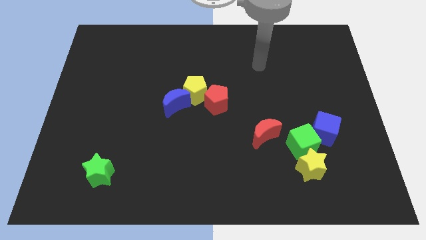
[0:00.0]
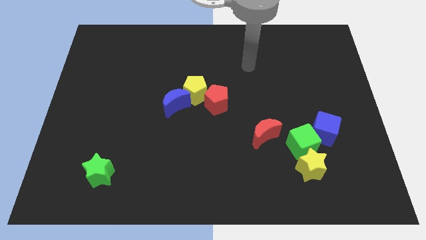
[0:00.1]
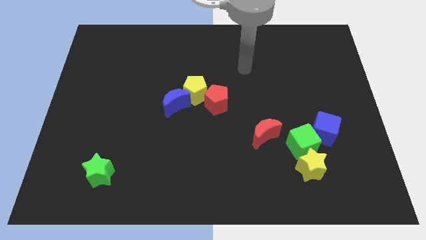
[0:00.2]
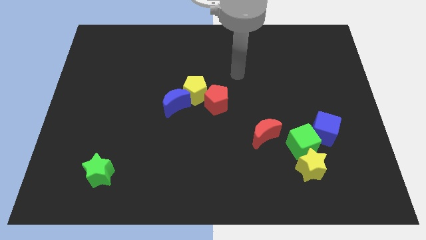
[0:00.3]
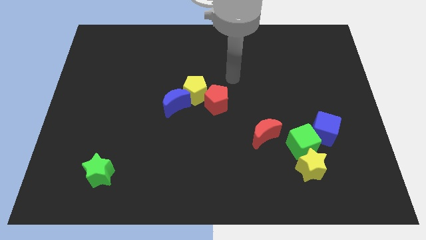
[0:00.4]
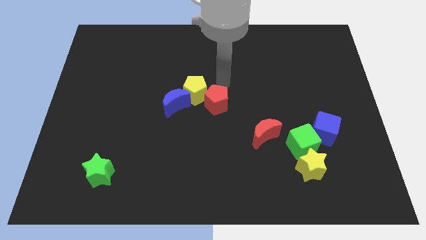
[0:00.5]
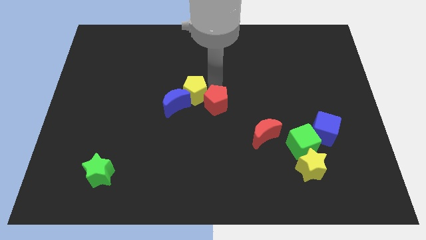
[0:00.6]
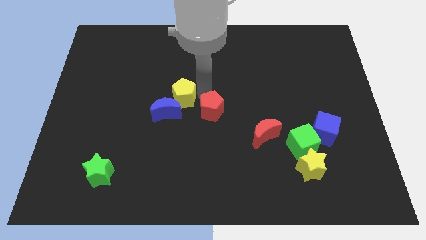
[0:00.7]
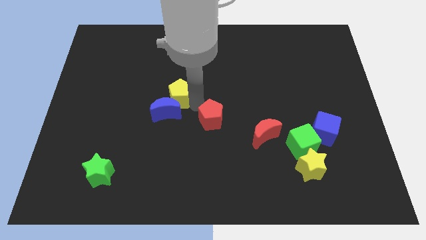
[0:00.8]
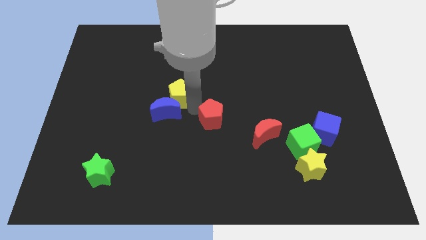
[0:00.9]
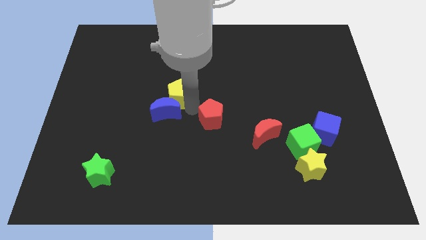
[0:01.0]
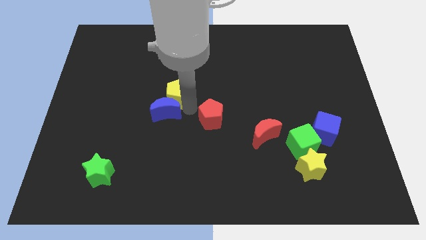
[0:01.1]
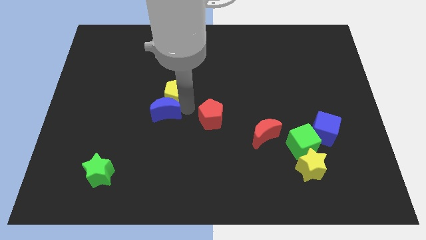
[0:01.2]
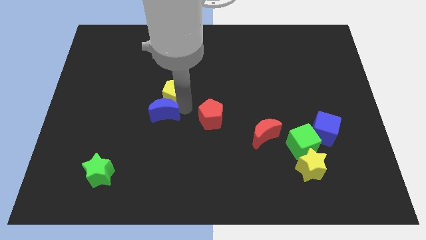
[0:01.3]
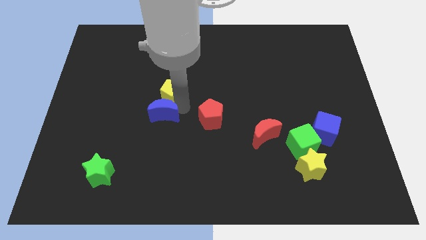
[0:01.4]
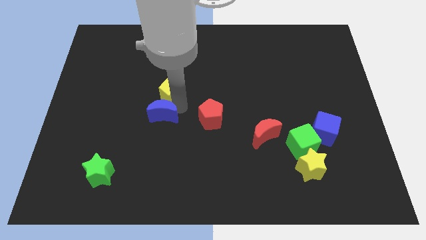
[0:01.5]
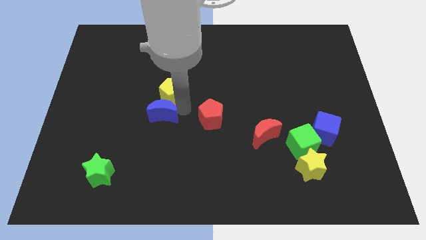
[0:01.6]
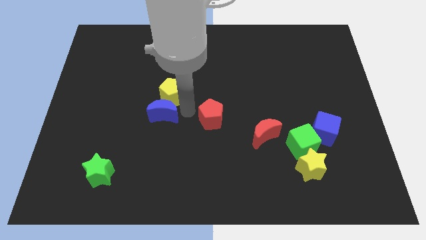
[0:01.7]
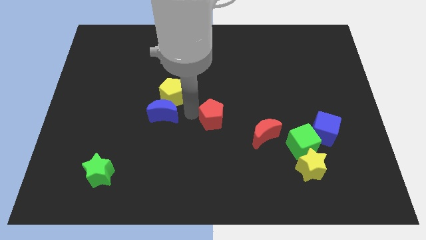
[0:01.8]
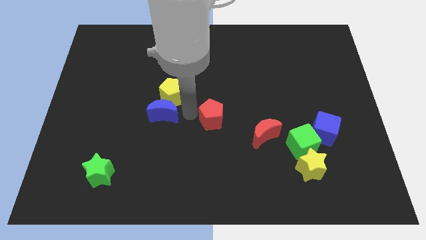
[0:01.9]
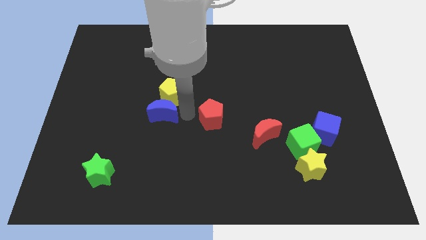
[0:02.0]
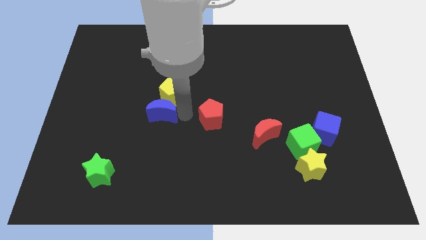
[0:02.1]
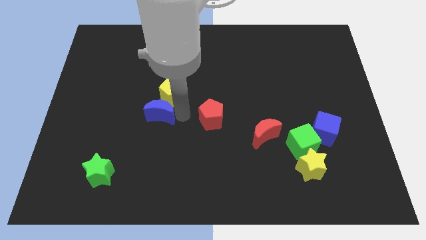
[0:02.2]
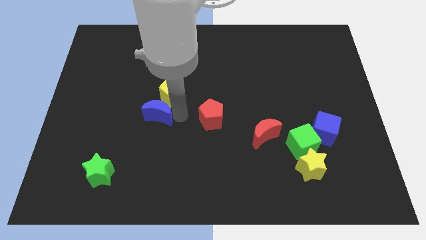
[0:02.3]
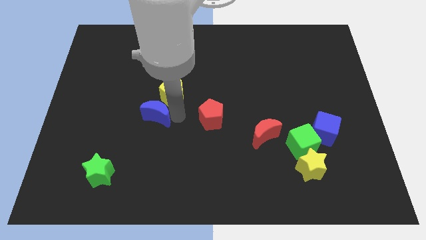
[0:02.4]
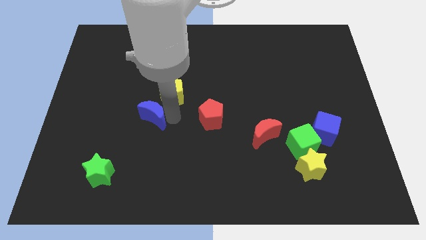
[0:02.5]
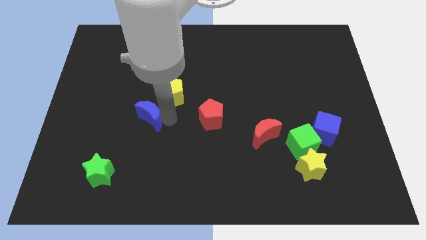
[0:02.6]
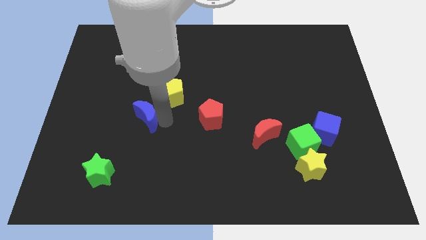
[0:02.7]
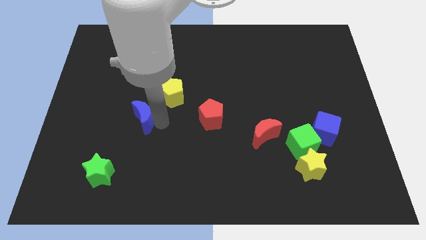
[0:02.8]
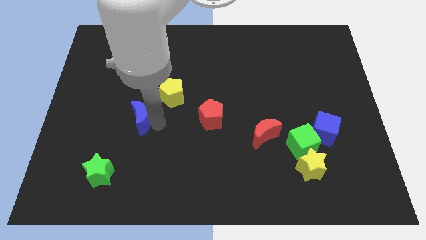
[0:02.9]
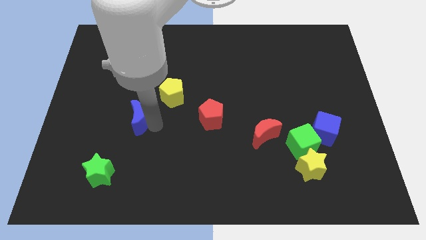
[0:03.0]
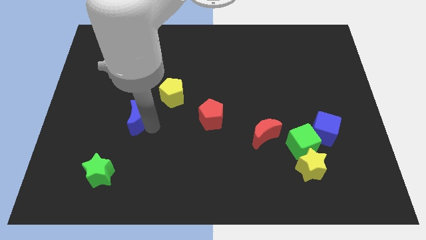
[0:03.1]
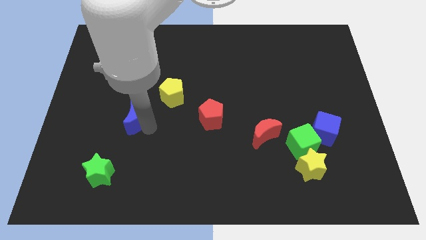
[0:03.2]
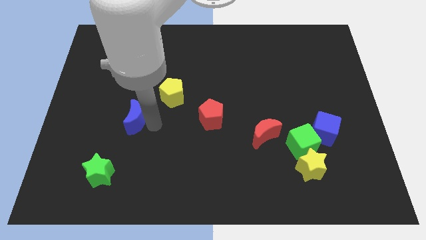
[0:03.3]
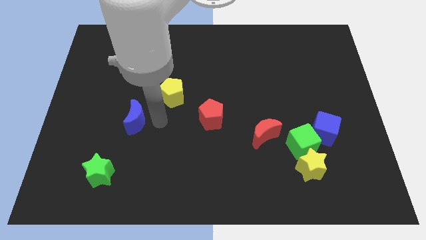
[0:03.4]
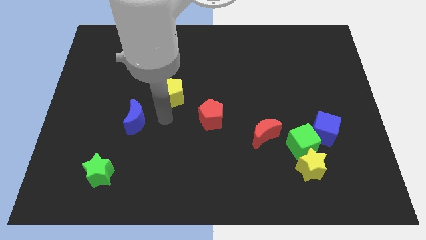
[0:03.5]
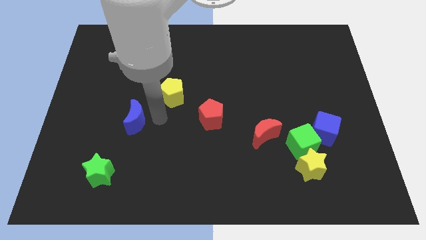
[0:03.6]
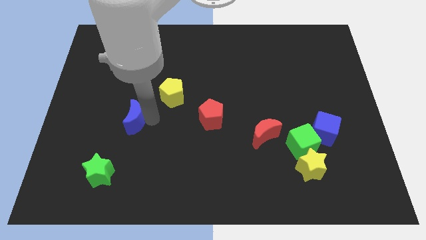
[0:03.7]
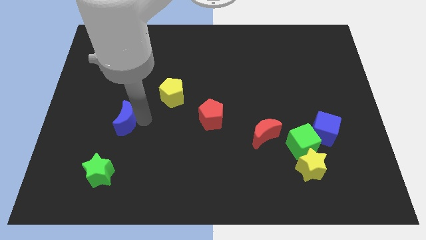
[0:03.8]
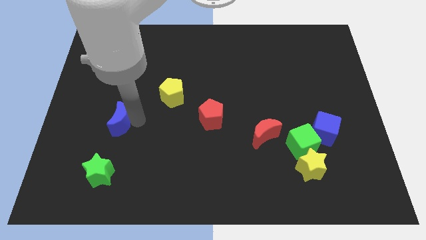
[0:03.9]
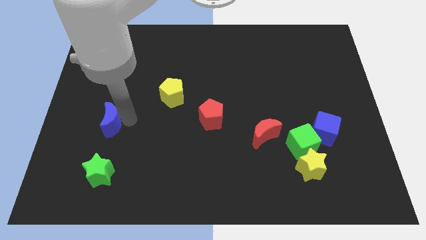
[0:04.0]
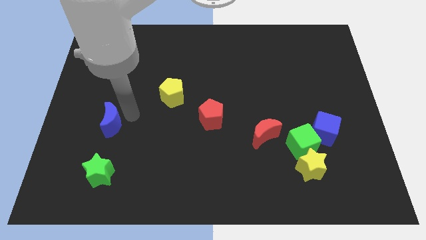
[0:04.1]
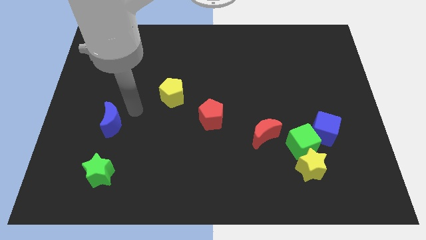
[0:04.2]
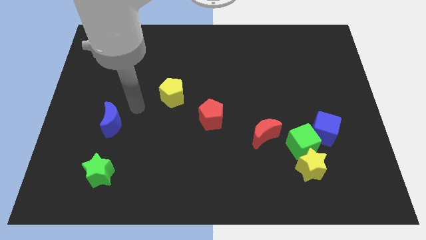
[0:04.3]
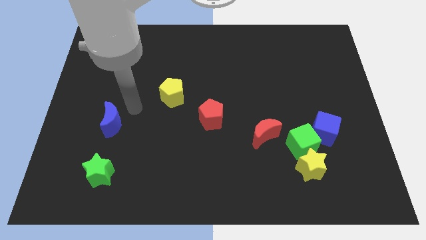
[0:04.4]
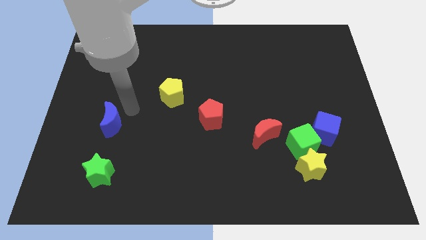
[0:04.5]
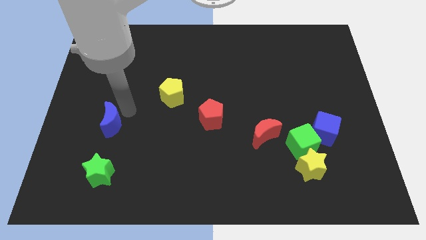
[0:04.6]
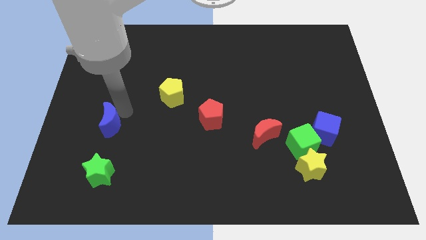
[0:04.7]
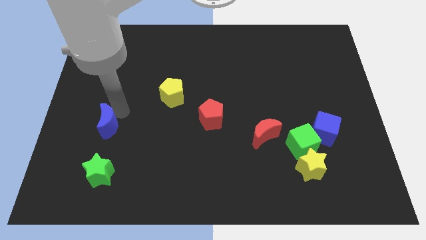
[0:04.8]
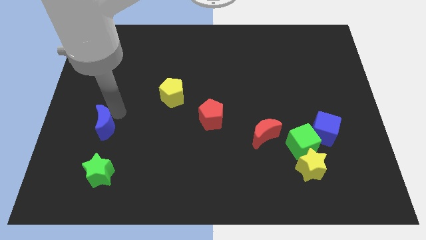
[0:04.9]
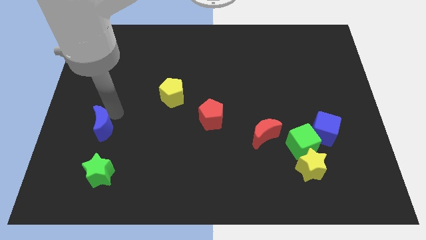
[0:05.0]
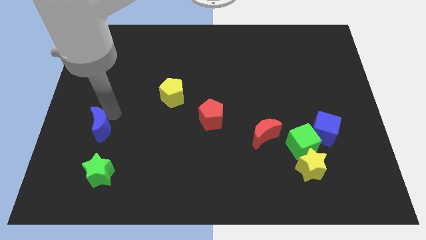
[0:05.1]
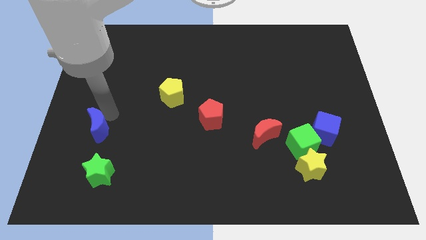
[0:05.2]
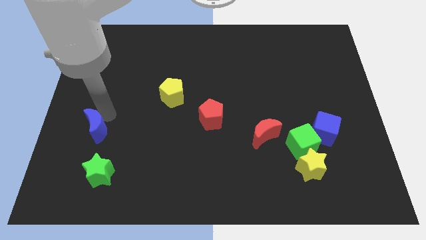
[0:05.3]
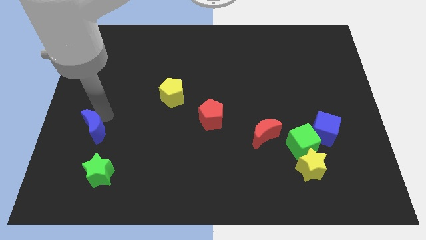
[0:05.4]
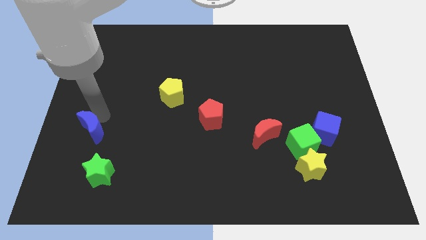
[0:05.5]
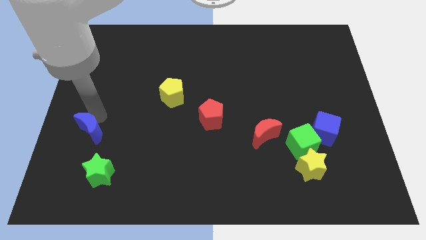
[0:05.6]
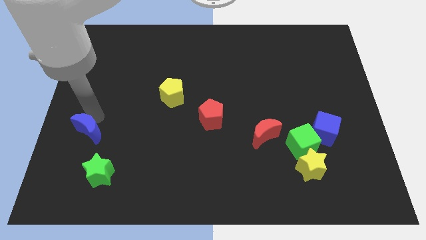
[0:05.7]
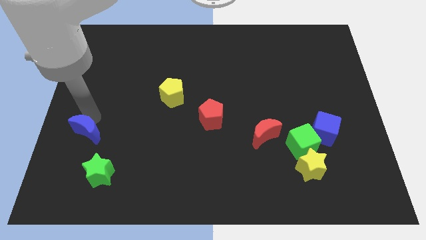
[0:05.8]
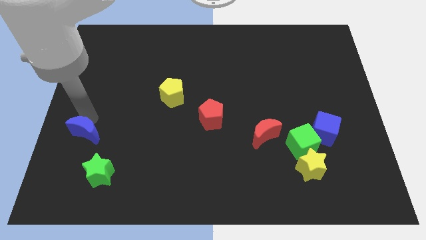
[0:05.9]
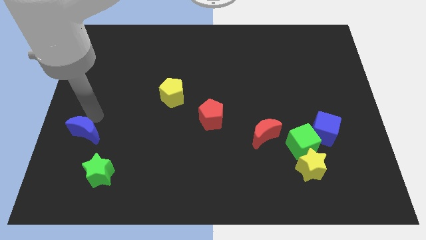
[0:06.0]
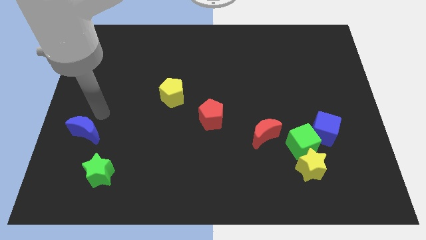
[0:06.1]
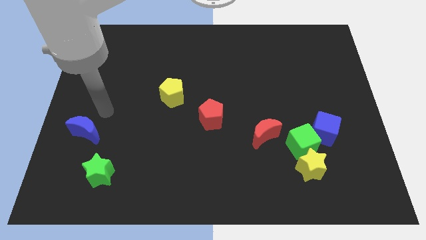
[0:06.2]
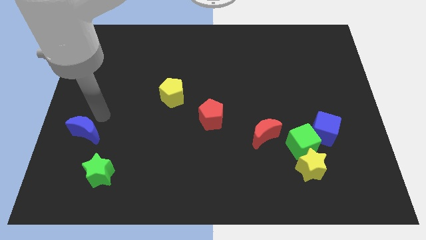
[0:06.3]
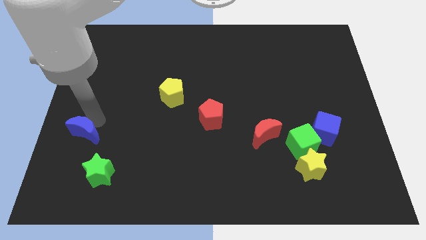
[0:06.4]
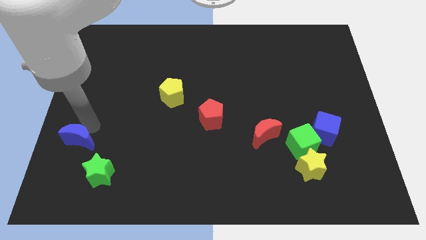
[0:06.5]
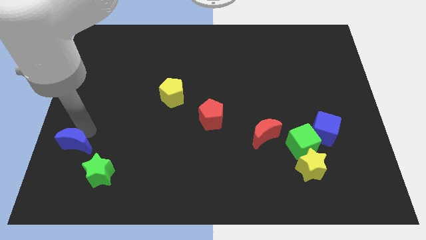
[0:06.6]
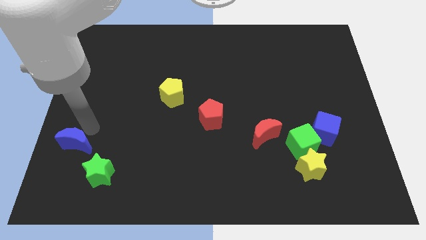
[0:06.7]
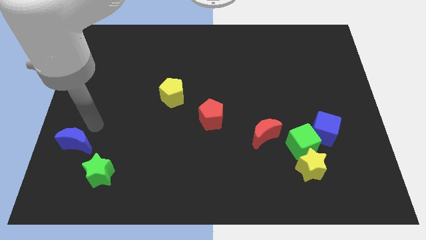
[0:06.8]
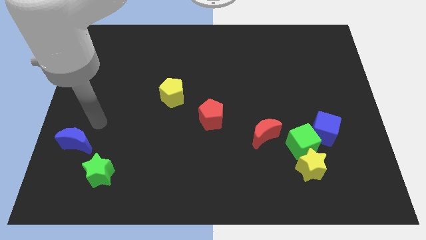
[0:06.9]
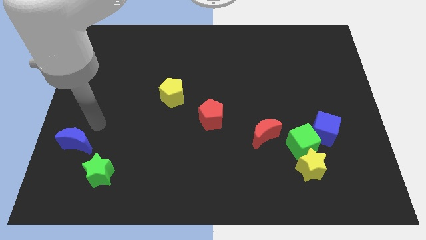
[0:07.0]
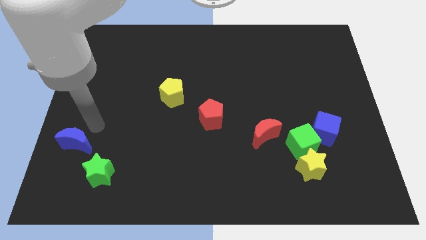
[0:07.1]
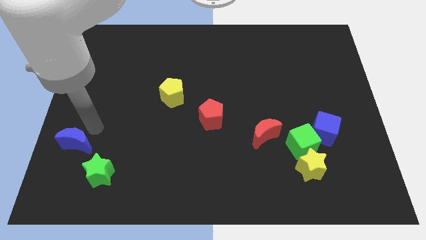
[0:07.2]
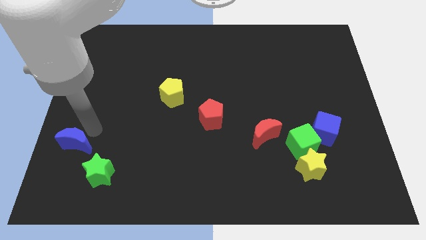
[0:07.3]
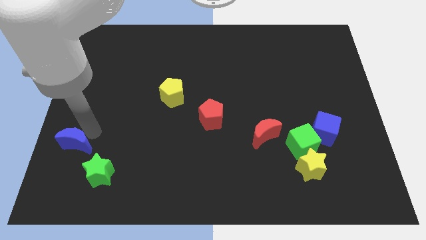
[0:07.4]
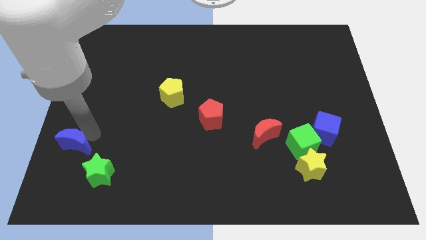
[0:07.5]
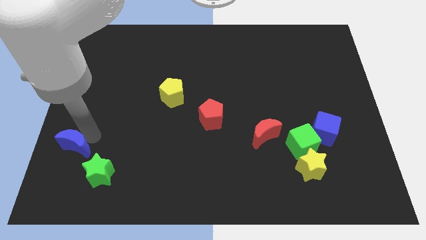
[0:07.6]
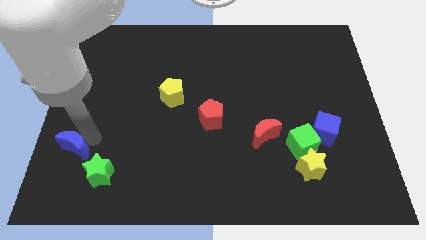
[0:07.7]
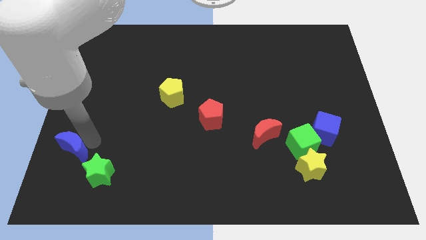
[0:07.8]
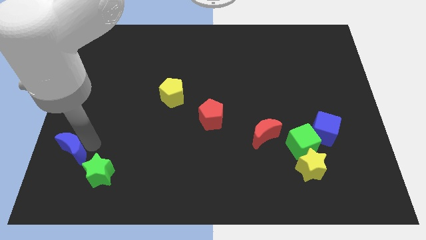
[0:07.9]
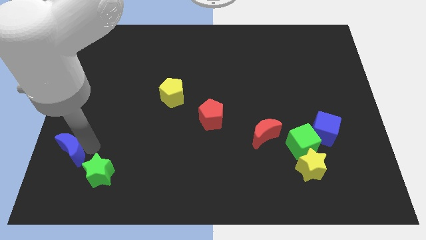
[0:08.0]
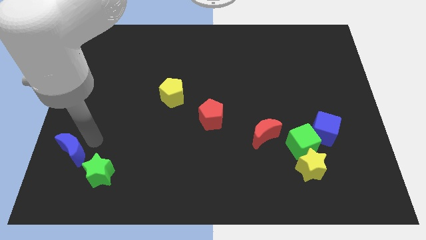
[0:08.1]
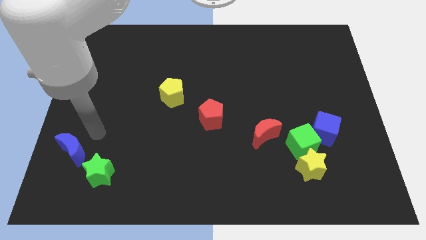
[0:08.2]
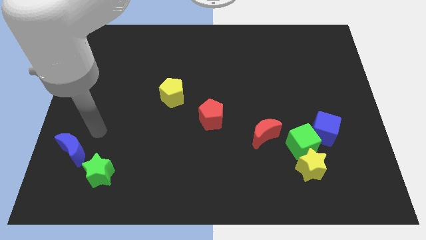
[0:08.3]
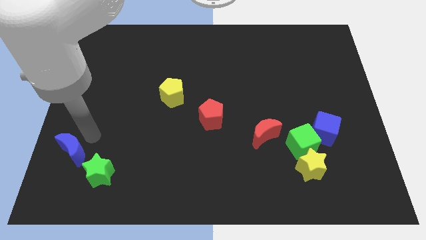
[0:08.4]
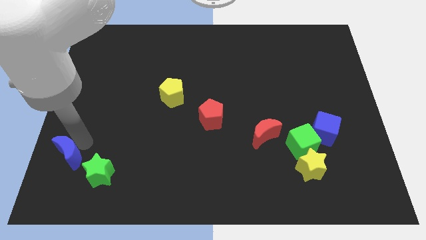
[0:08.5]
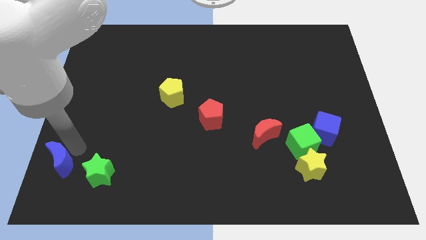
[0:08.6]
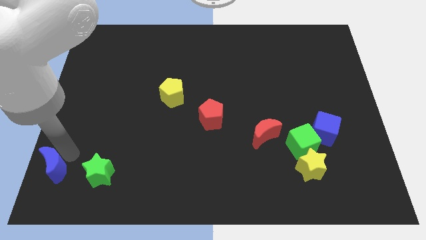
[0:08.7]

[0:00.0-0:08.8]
move the blue moon to the bottom left
